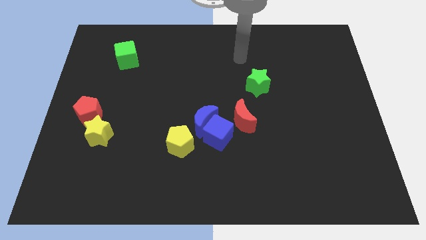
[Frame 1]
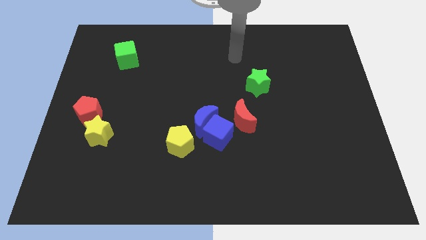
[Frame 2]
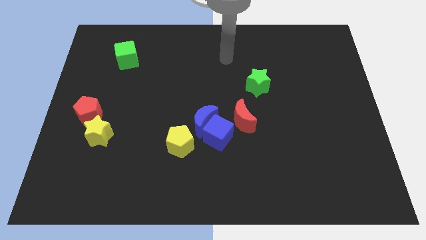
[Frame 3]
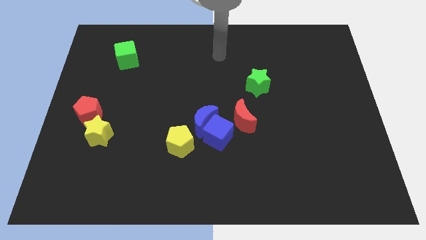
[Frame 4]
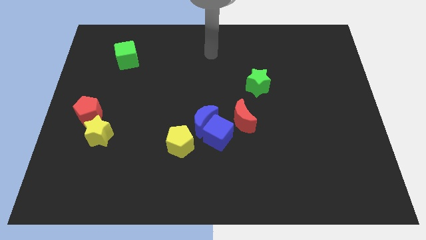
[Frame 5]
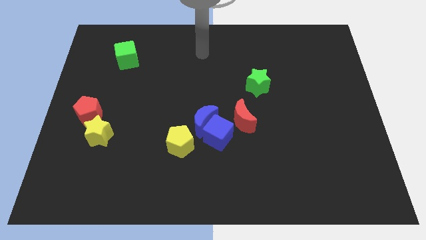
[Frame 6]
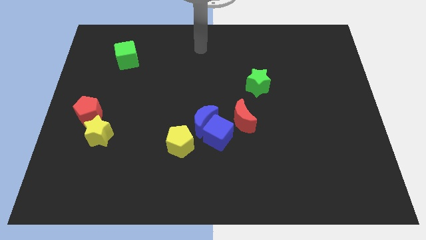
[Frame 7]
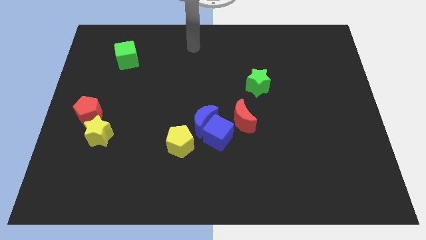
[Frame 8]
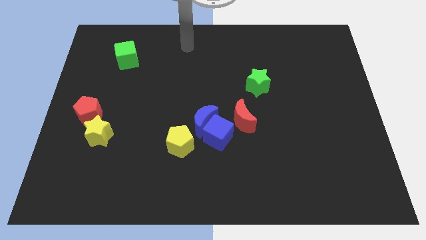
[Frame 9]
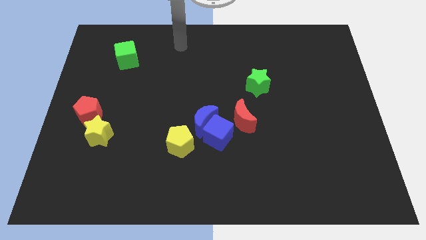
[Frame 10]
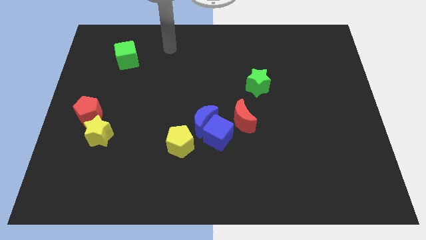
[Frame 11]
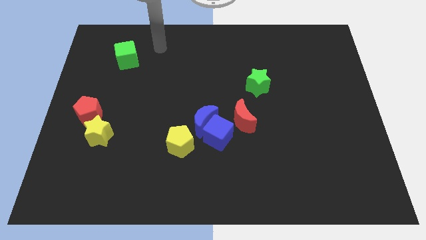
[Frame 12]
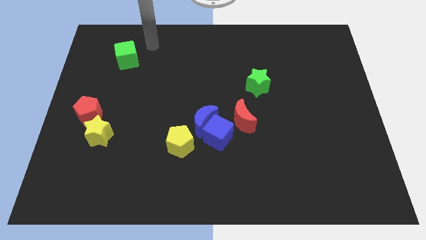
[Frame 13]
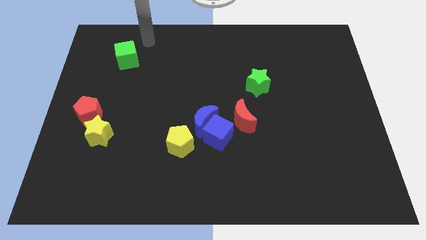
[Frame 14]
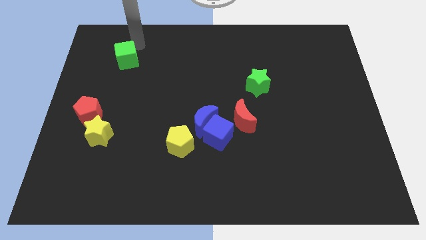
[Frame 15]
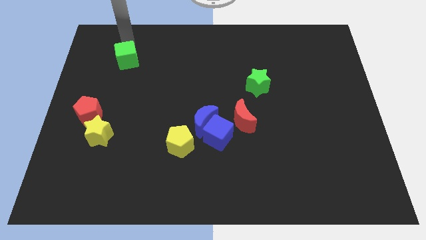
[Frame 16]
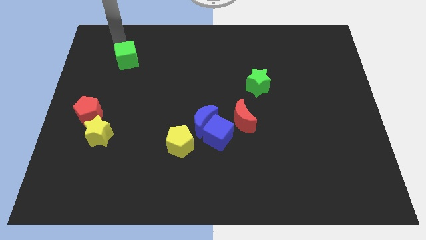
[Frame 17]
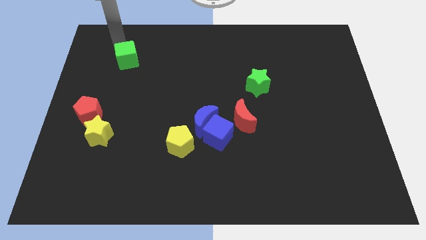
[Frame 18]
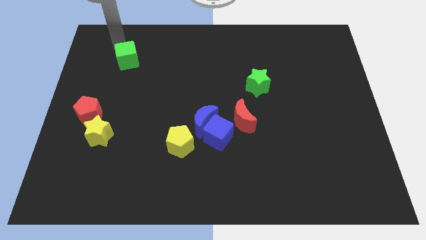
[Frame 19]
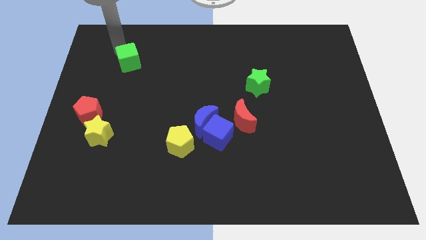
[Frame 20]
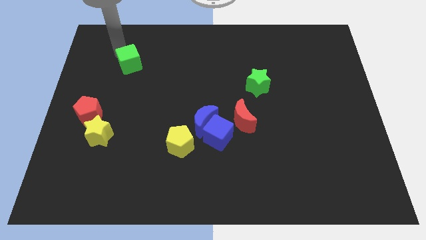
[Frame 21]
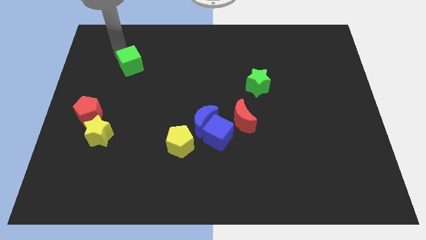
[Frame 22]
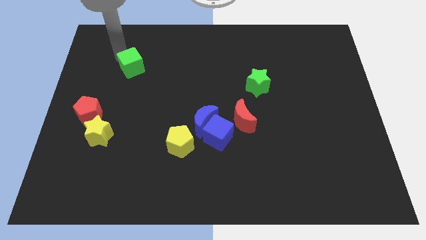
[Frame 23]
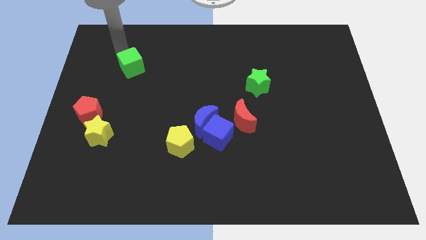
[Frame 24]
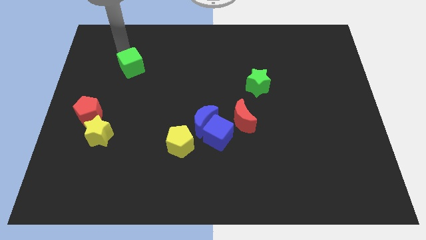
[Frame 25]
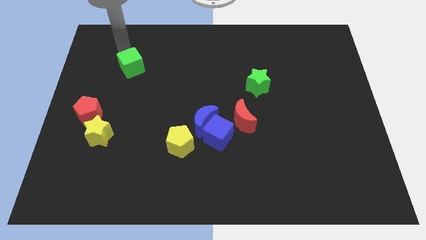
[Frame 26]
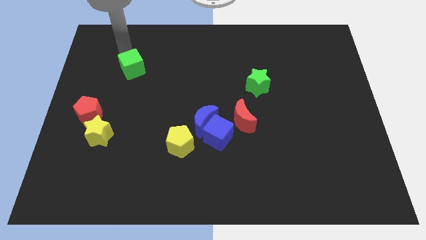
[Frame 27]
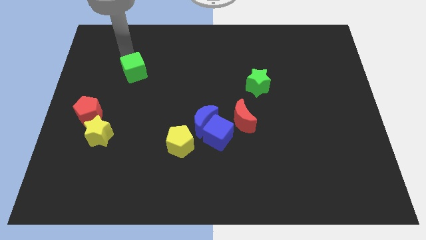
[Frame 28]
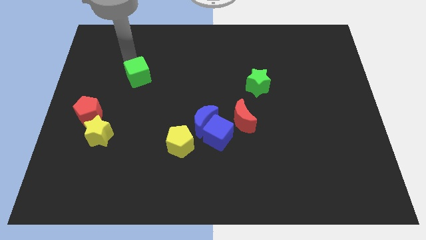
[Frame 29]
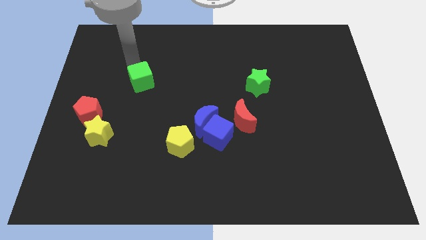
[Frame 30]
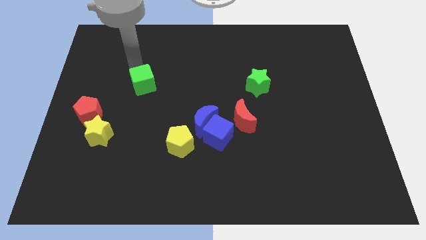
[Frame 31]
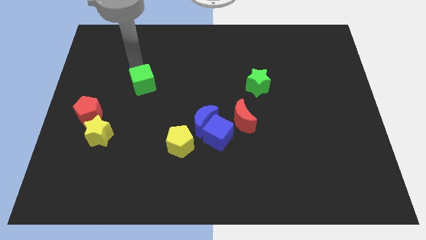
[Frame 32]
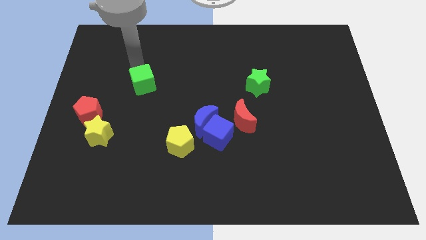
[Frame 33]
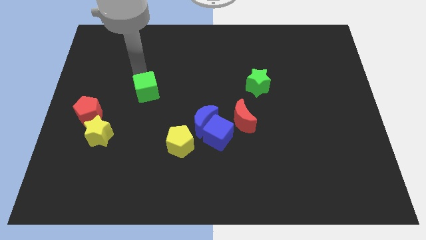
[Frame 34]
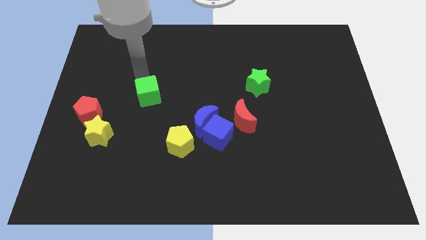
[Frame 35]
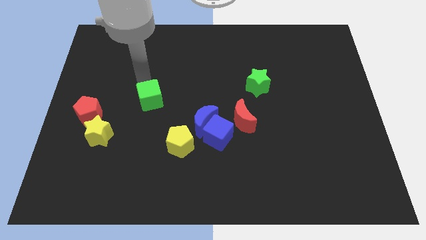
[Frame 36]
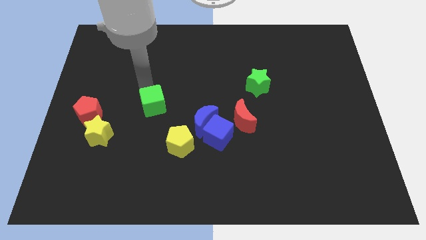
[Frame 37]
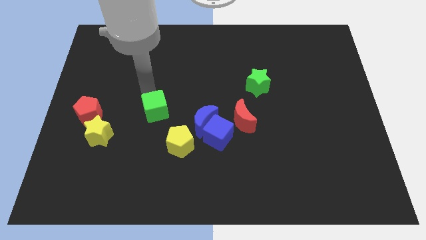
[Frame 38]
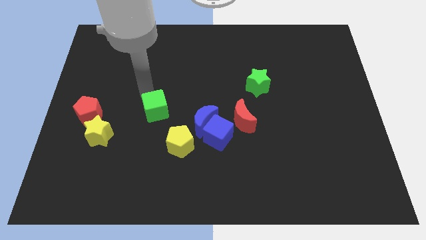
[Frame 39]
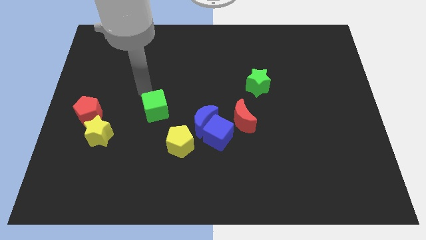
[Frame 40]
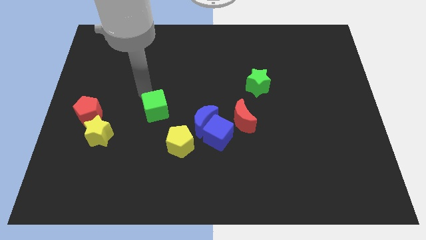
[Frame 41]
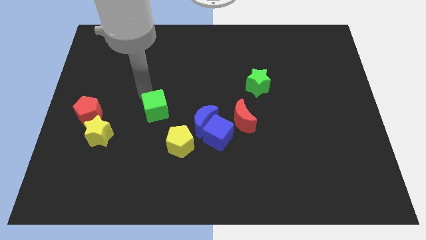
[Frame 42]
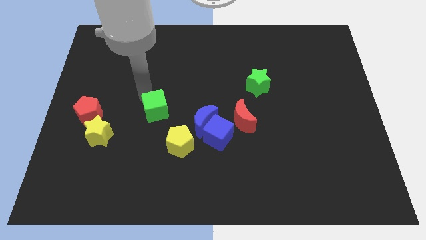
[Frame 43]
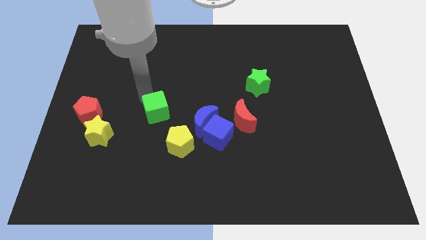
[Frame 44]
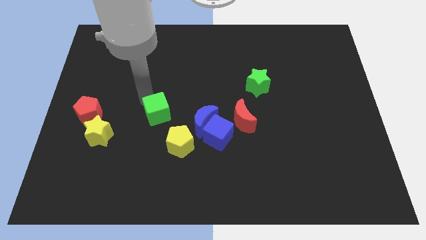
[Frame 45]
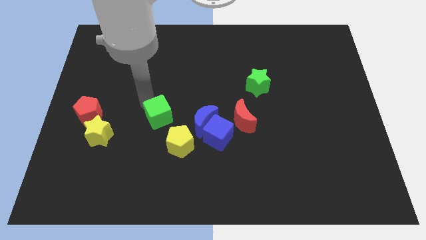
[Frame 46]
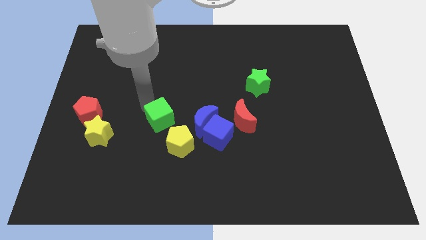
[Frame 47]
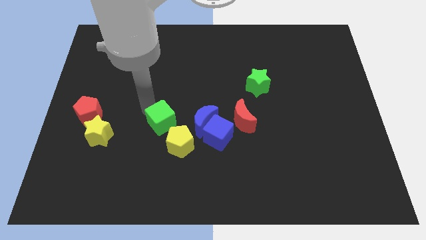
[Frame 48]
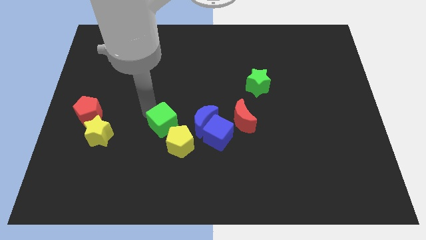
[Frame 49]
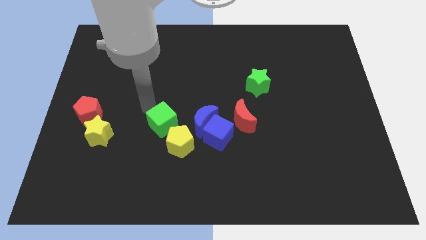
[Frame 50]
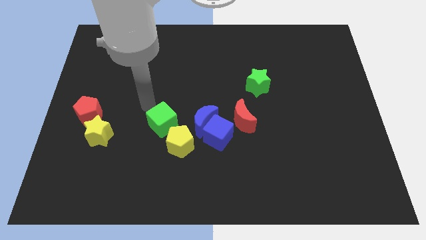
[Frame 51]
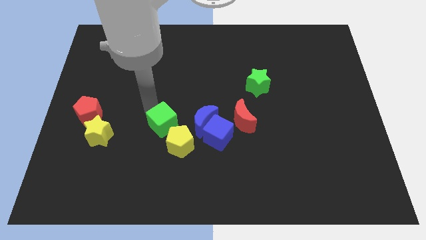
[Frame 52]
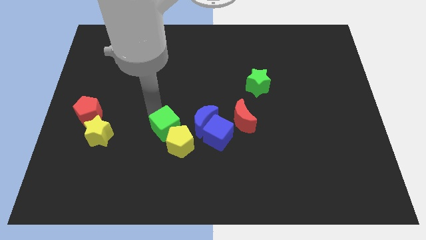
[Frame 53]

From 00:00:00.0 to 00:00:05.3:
slide the green cube next to the yellow pentagon

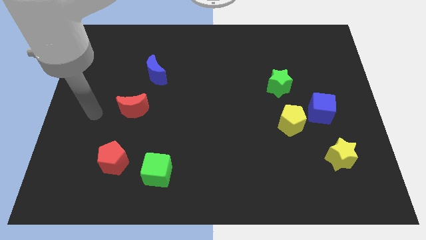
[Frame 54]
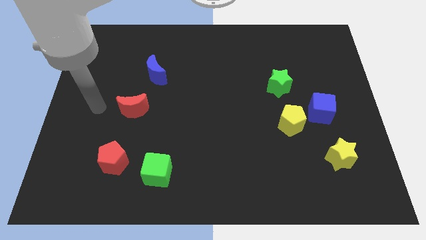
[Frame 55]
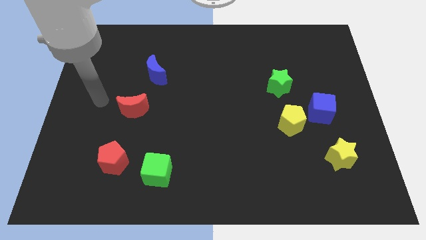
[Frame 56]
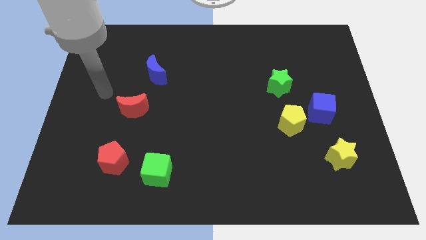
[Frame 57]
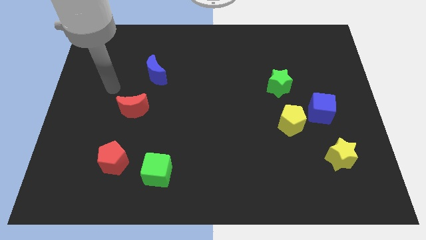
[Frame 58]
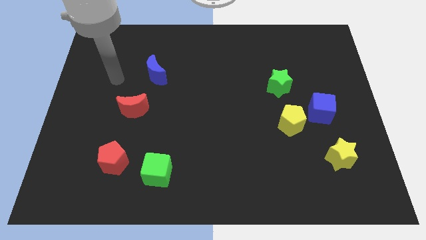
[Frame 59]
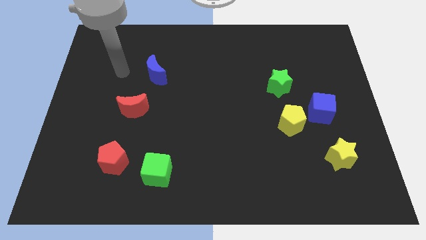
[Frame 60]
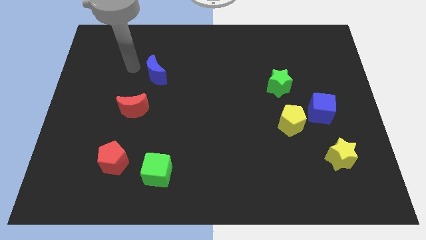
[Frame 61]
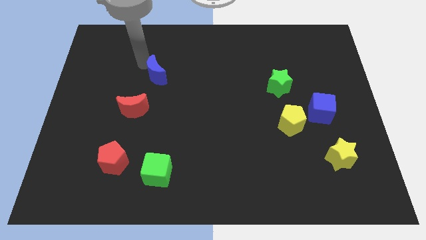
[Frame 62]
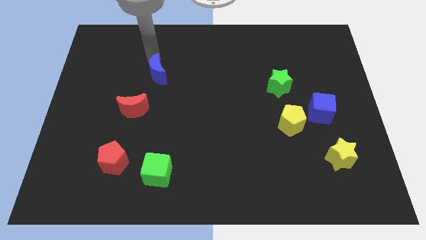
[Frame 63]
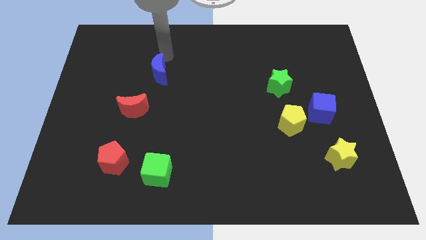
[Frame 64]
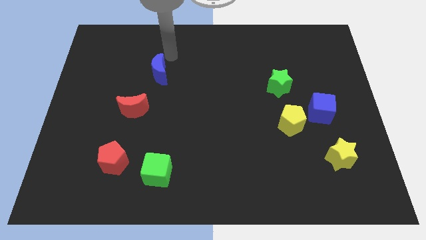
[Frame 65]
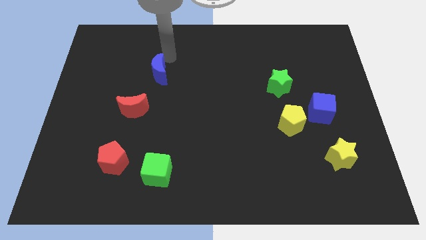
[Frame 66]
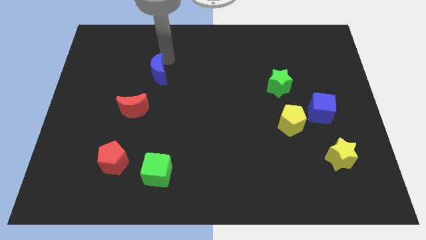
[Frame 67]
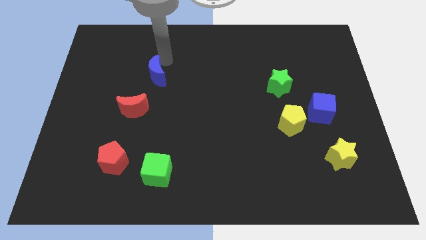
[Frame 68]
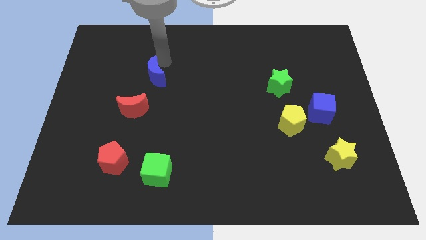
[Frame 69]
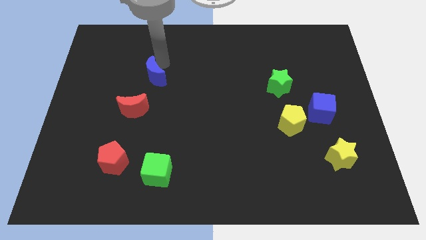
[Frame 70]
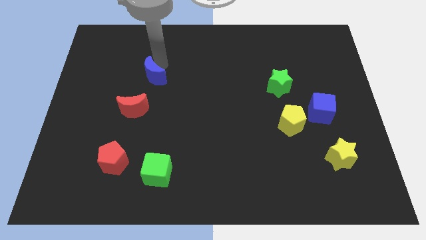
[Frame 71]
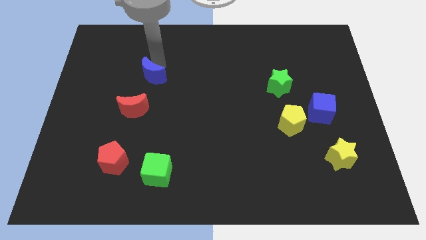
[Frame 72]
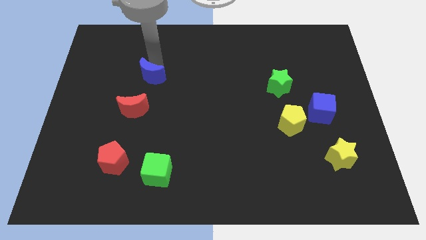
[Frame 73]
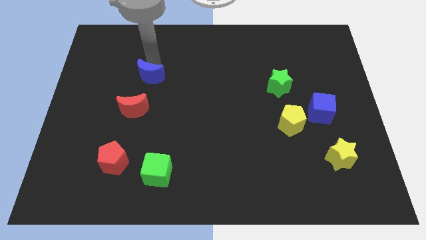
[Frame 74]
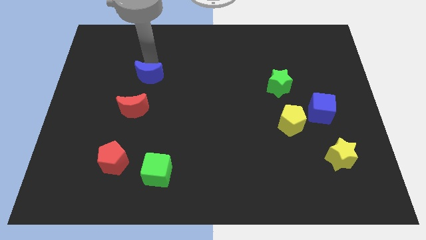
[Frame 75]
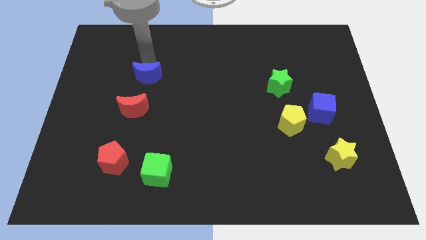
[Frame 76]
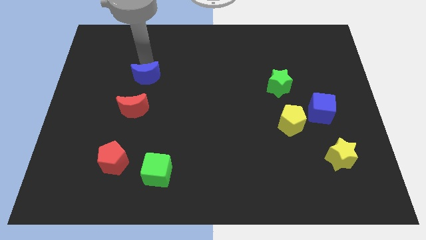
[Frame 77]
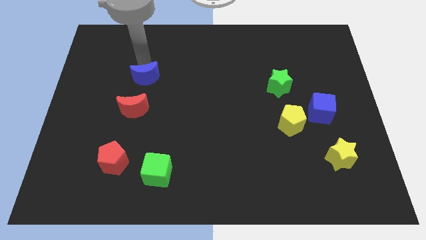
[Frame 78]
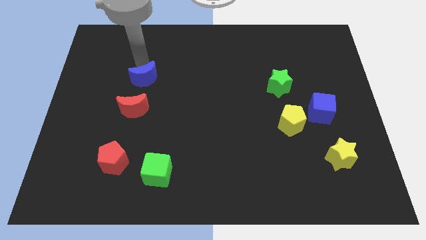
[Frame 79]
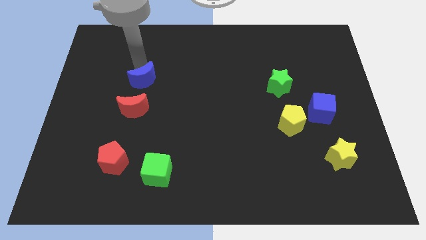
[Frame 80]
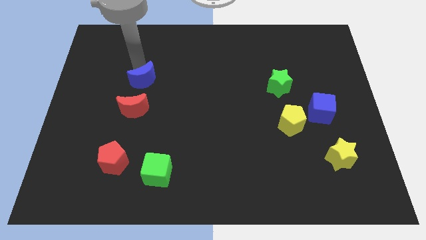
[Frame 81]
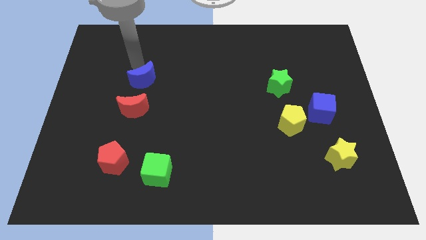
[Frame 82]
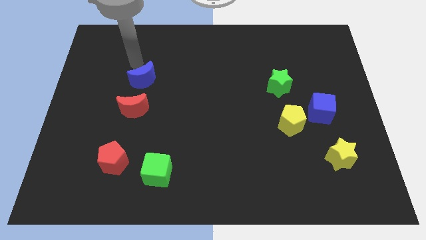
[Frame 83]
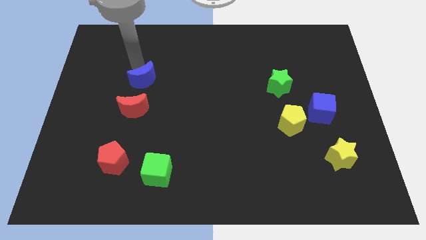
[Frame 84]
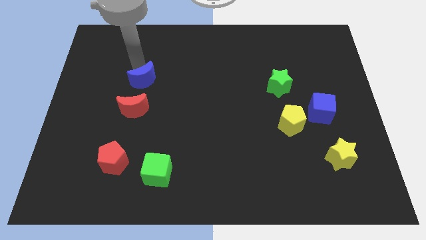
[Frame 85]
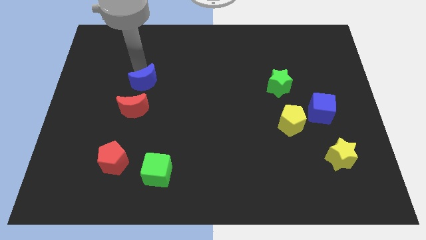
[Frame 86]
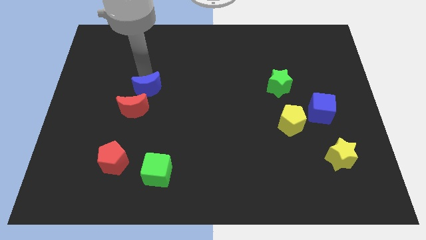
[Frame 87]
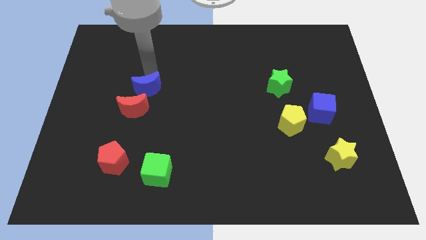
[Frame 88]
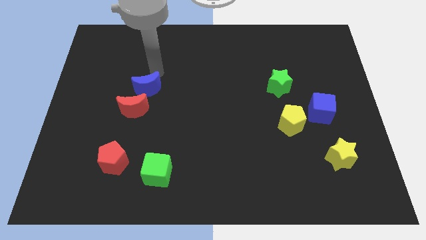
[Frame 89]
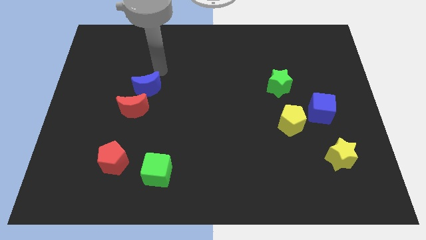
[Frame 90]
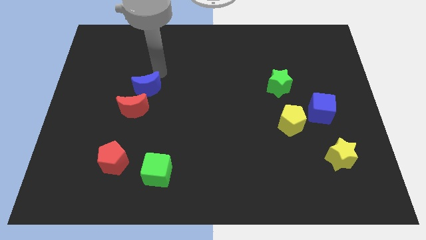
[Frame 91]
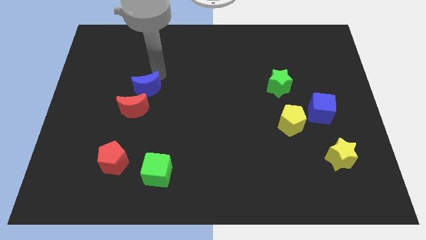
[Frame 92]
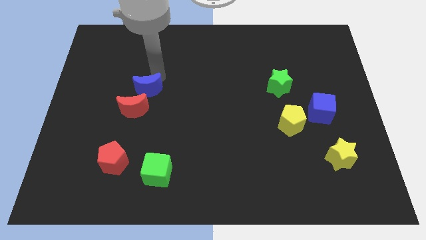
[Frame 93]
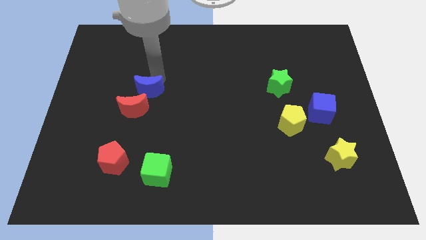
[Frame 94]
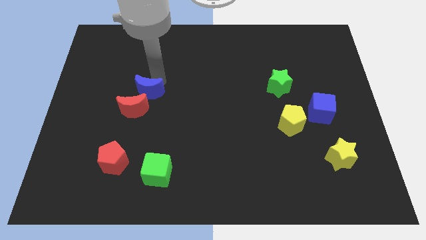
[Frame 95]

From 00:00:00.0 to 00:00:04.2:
put the blue moon close to the red moon
